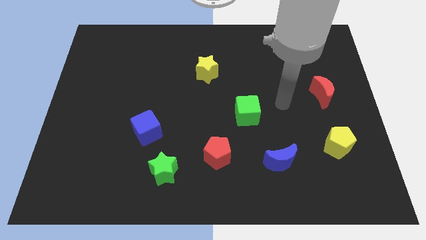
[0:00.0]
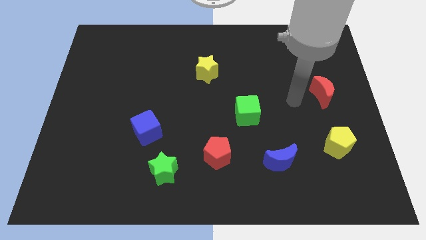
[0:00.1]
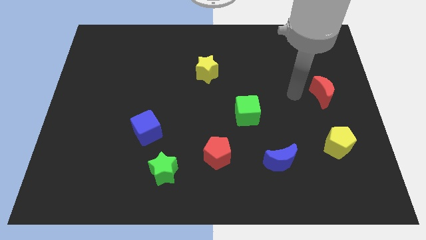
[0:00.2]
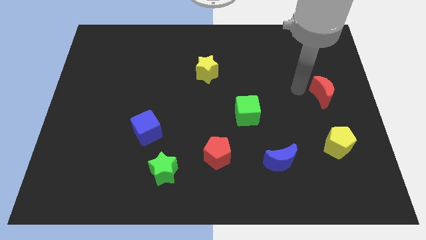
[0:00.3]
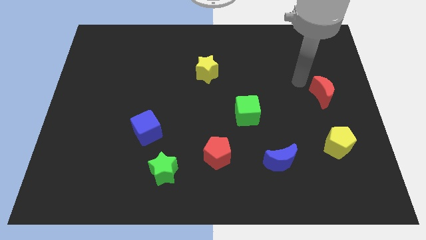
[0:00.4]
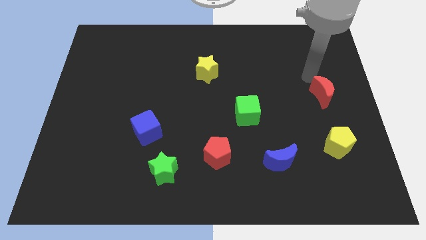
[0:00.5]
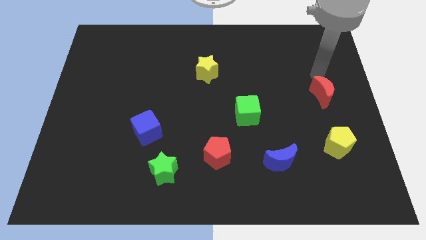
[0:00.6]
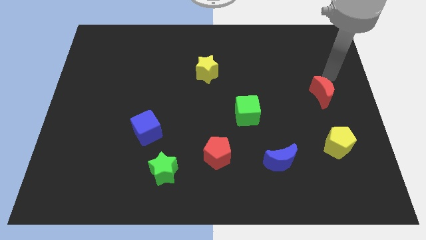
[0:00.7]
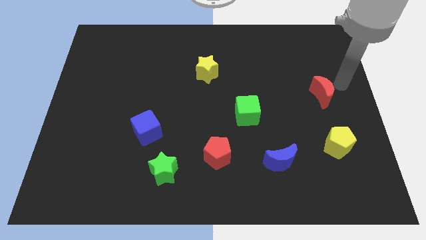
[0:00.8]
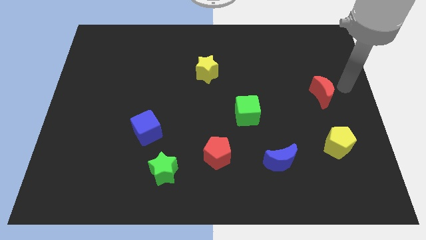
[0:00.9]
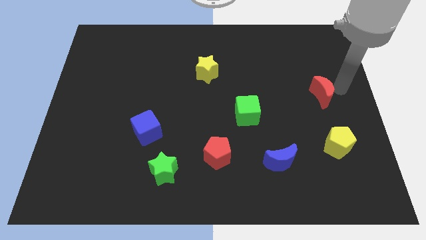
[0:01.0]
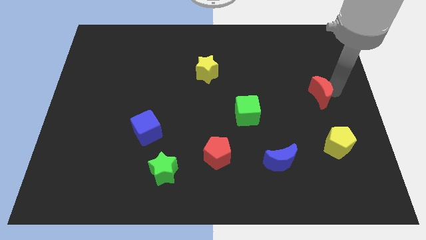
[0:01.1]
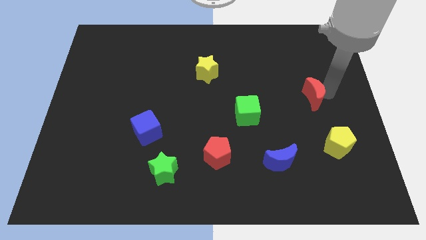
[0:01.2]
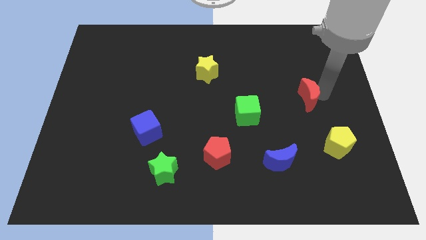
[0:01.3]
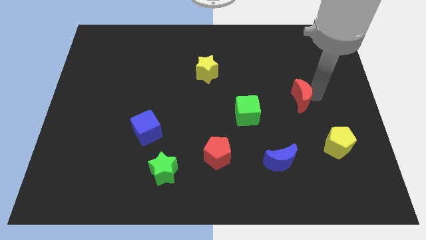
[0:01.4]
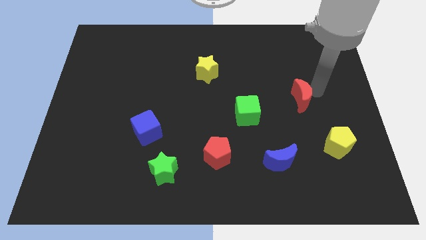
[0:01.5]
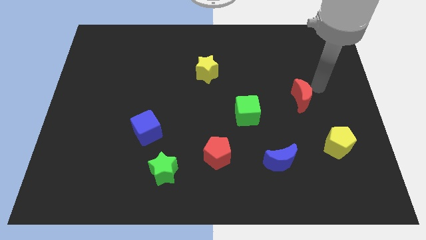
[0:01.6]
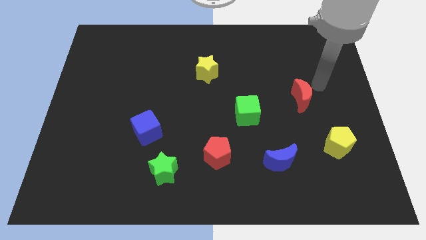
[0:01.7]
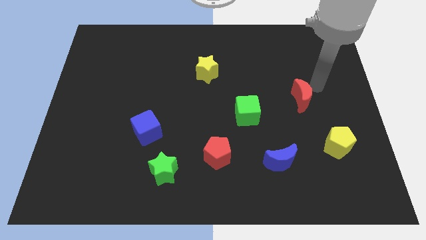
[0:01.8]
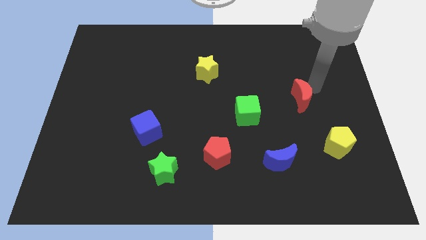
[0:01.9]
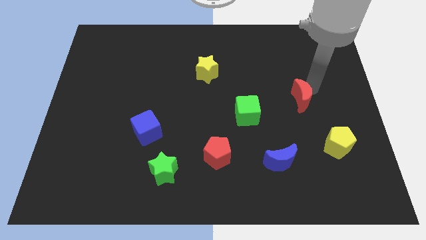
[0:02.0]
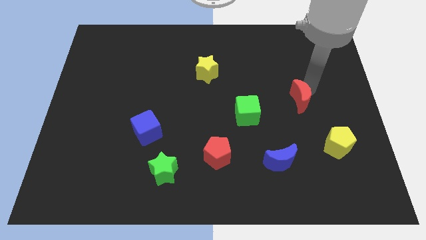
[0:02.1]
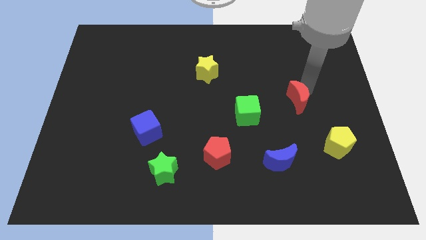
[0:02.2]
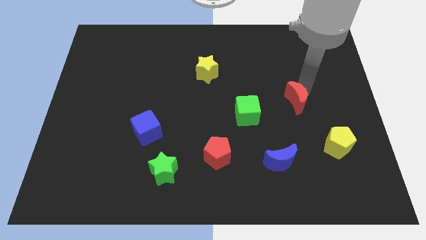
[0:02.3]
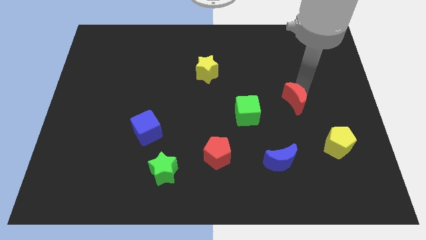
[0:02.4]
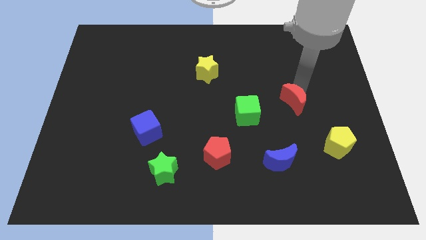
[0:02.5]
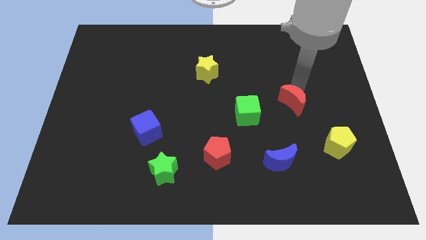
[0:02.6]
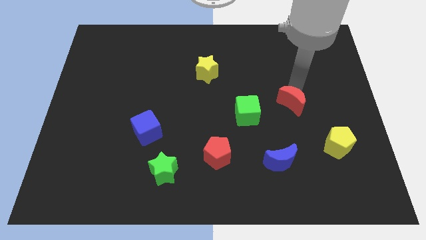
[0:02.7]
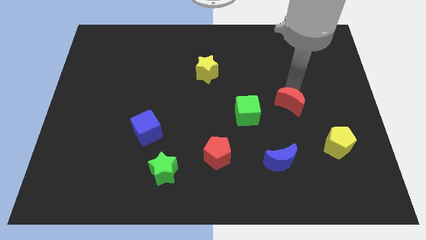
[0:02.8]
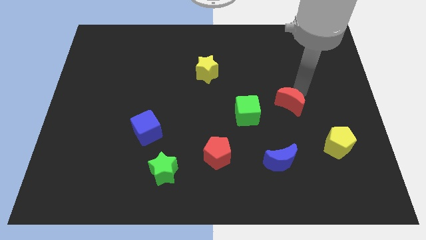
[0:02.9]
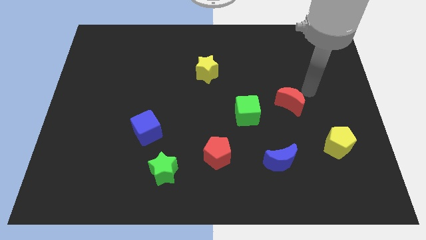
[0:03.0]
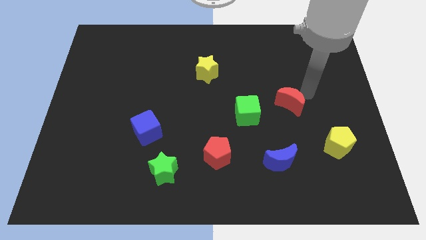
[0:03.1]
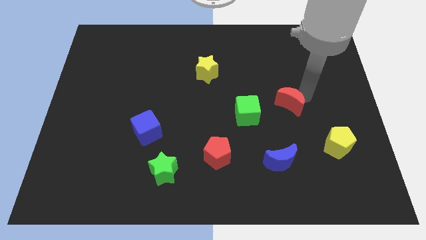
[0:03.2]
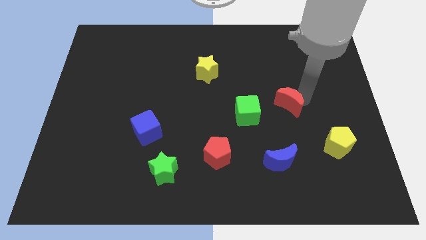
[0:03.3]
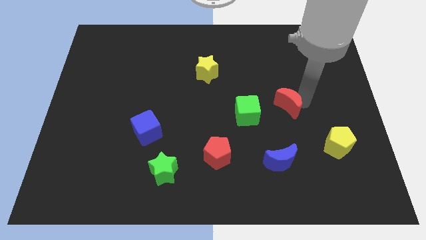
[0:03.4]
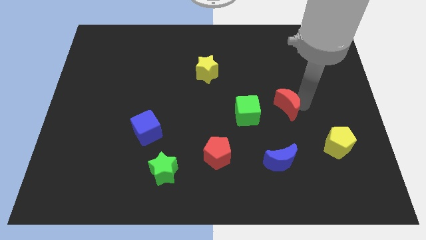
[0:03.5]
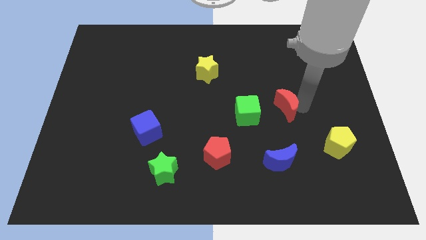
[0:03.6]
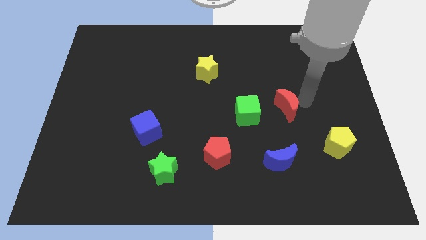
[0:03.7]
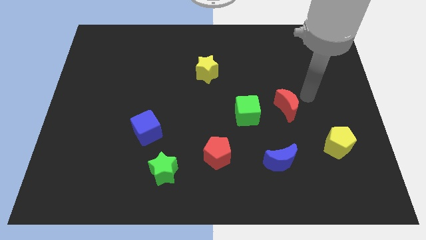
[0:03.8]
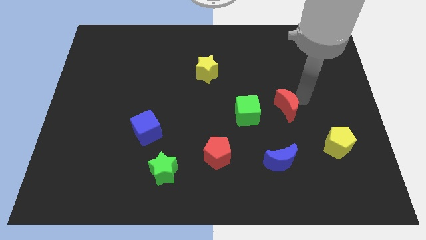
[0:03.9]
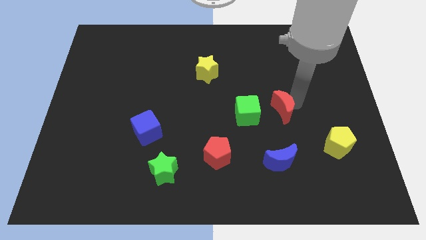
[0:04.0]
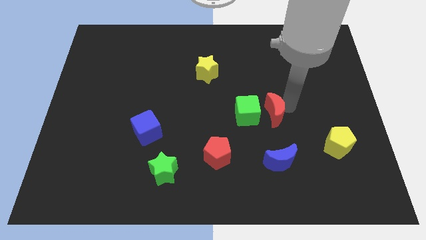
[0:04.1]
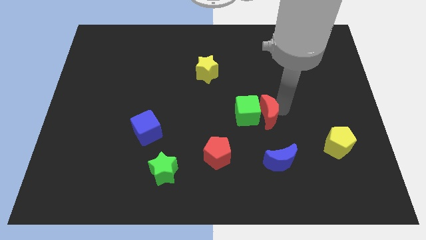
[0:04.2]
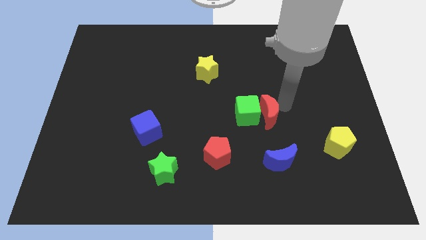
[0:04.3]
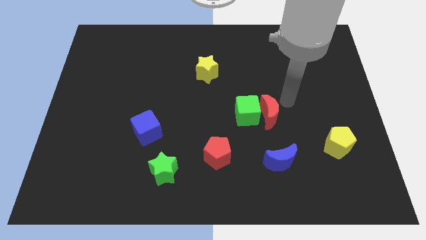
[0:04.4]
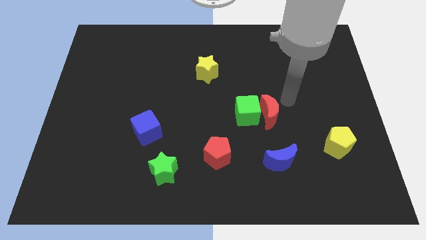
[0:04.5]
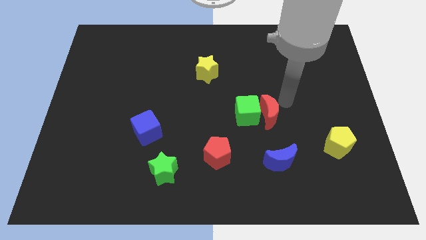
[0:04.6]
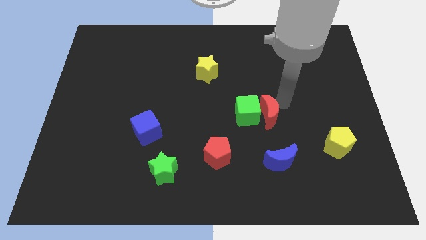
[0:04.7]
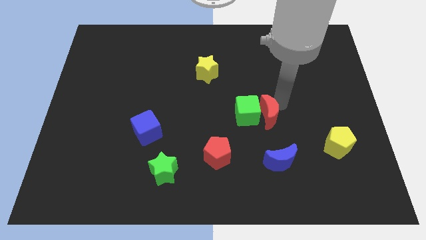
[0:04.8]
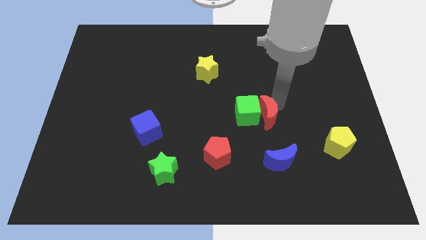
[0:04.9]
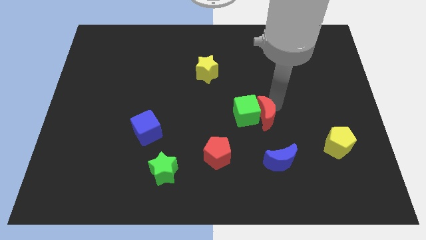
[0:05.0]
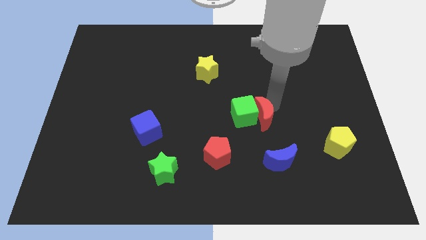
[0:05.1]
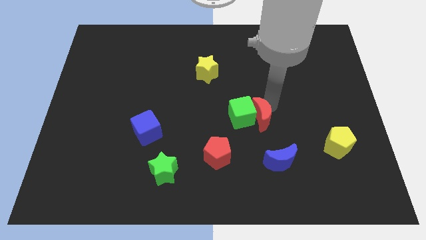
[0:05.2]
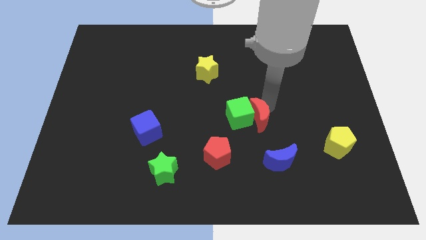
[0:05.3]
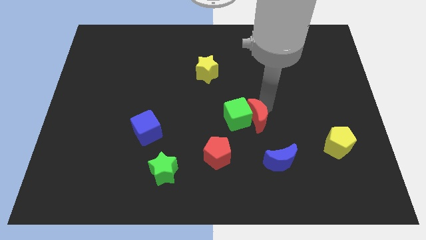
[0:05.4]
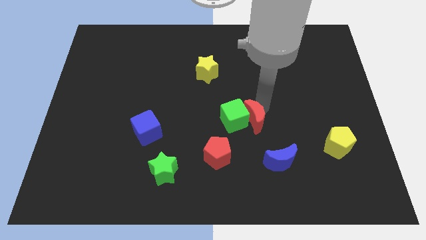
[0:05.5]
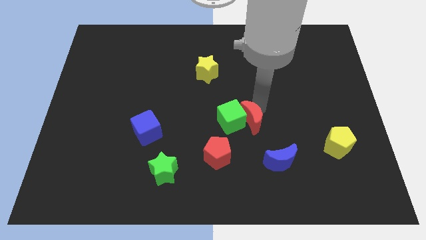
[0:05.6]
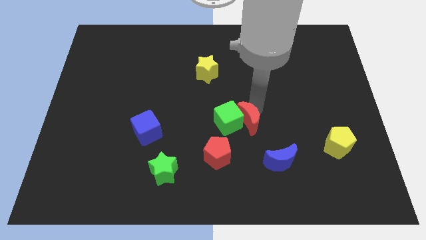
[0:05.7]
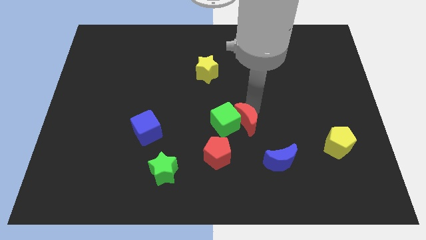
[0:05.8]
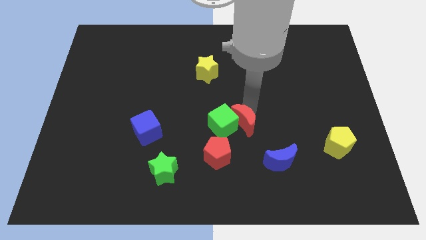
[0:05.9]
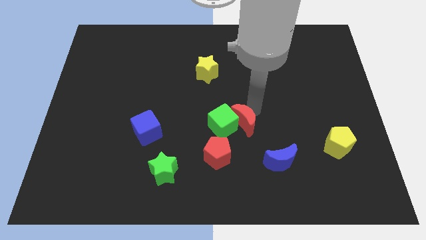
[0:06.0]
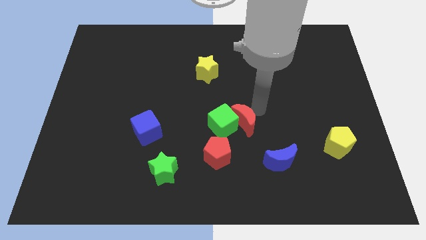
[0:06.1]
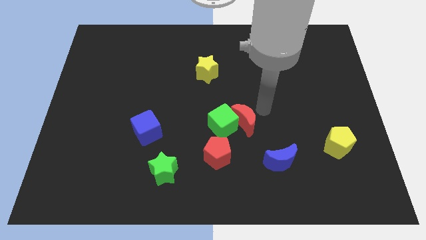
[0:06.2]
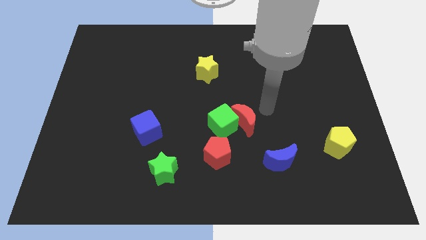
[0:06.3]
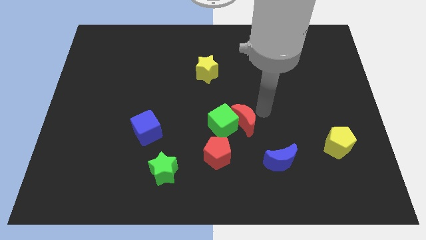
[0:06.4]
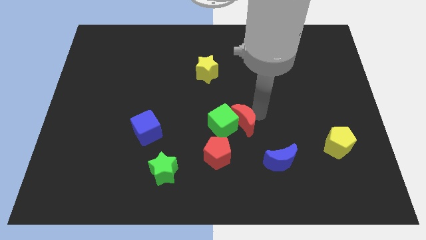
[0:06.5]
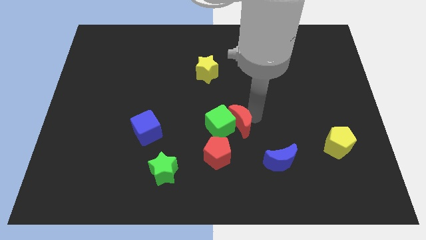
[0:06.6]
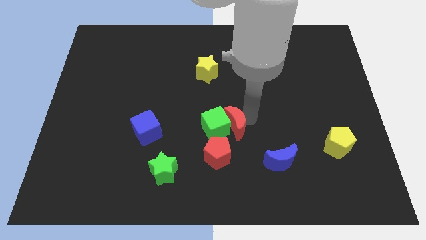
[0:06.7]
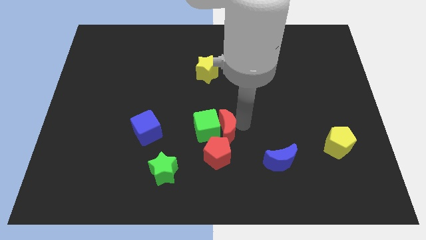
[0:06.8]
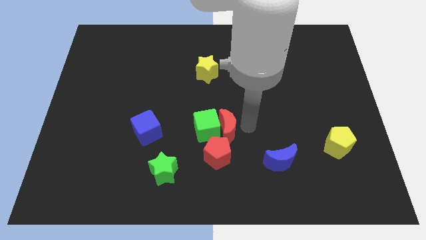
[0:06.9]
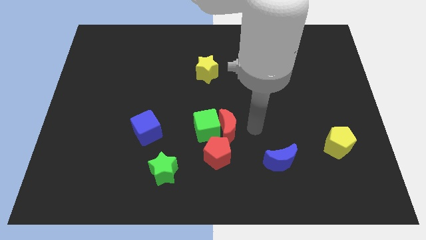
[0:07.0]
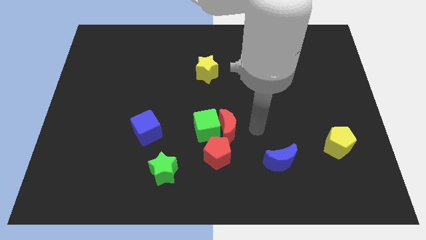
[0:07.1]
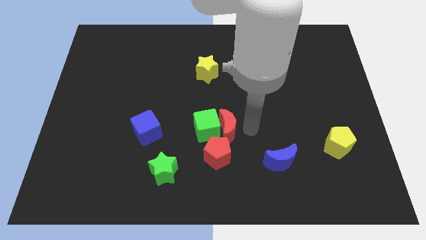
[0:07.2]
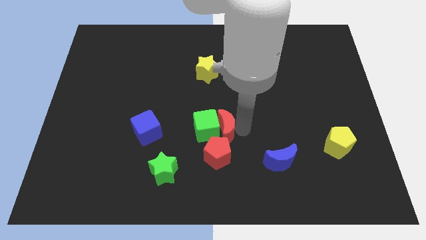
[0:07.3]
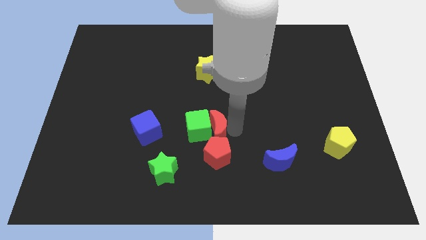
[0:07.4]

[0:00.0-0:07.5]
move the red moon to the right of the blue cube
